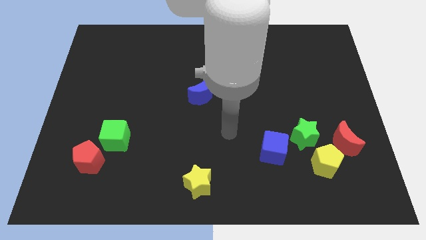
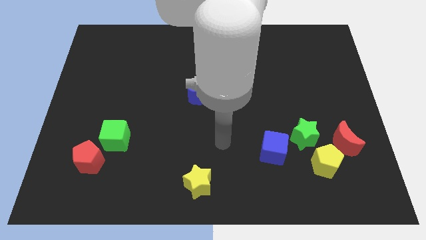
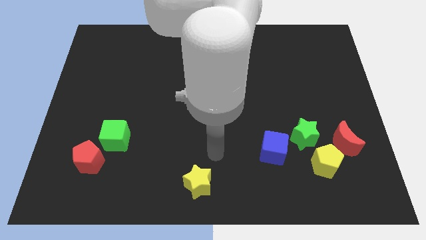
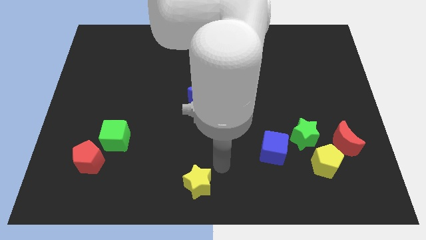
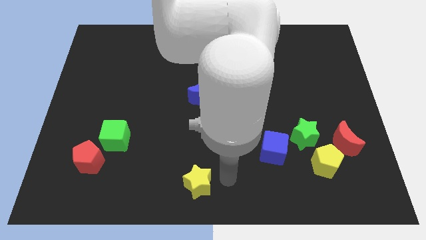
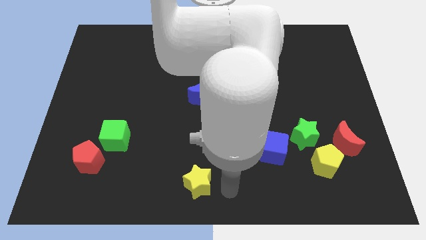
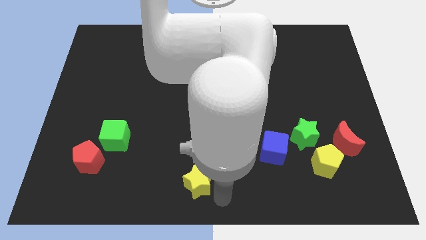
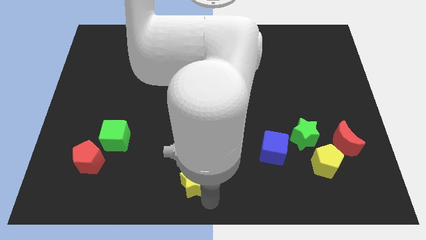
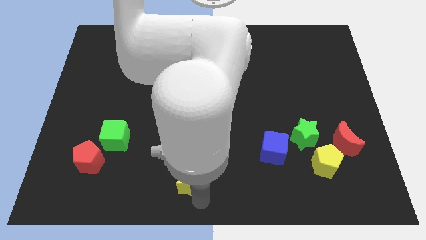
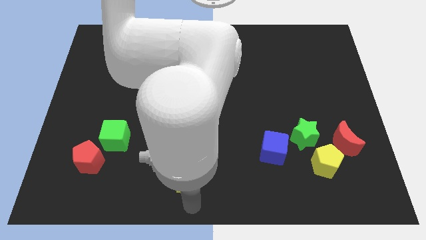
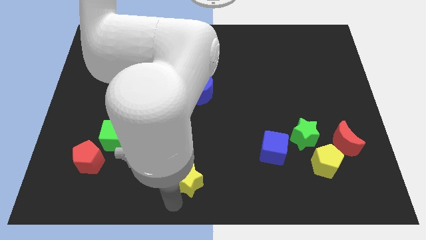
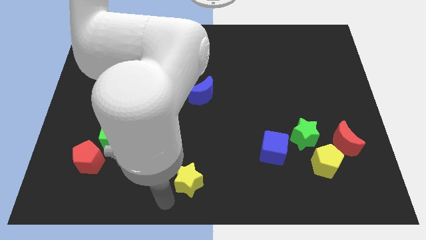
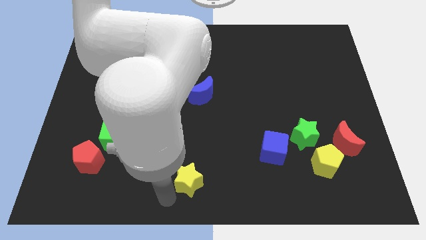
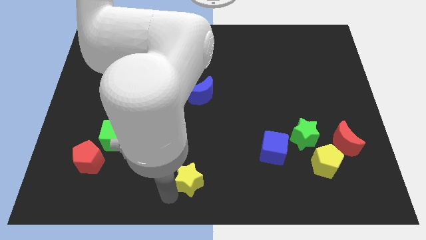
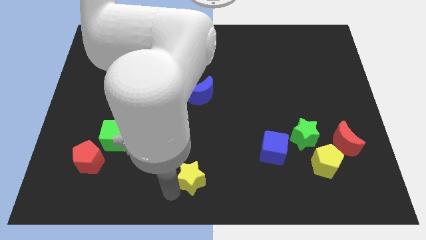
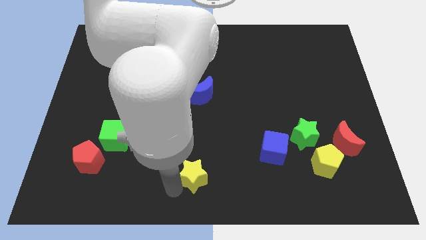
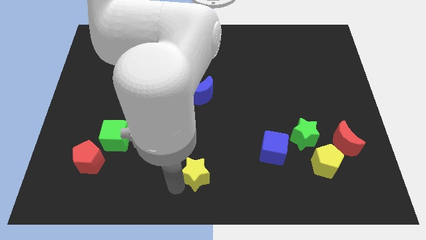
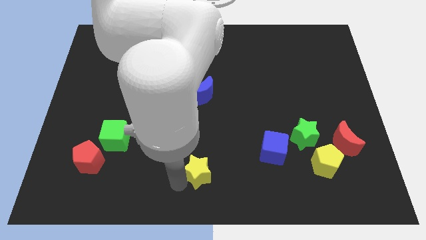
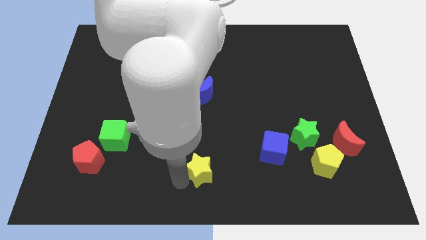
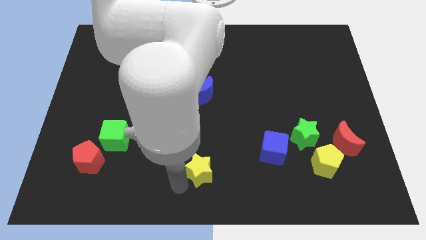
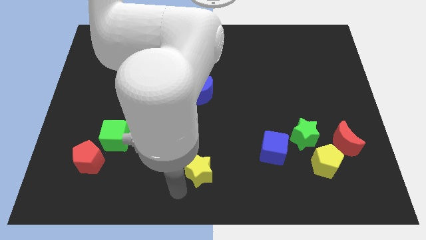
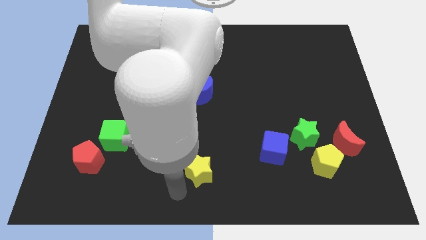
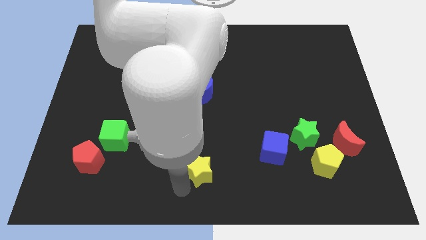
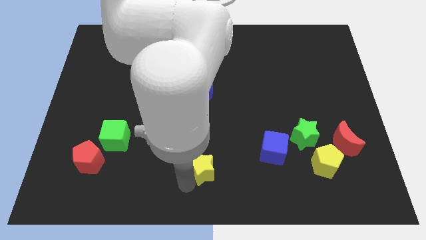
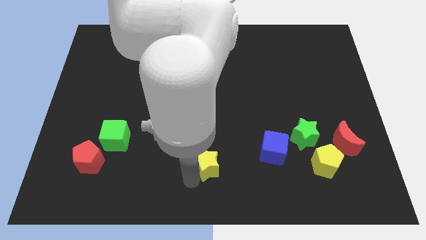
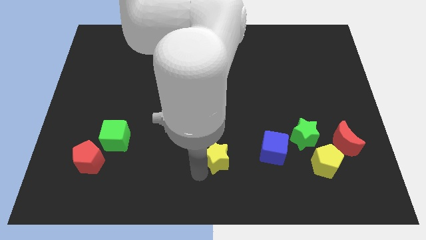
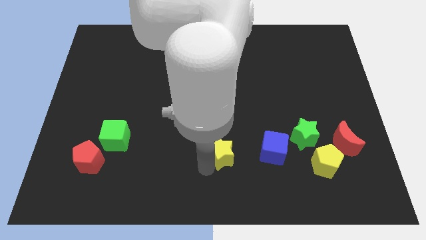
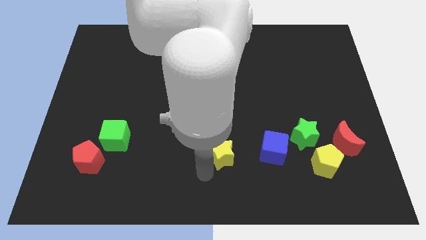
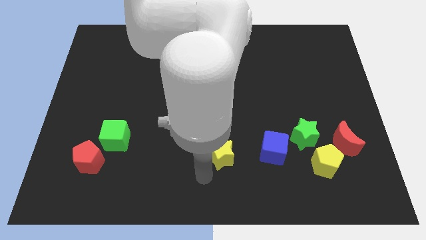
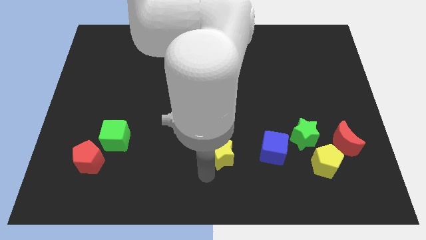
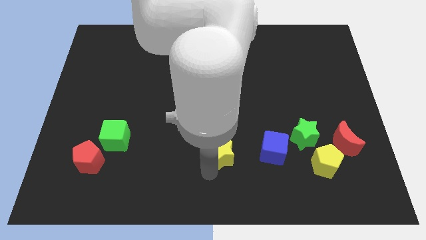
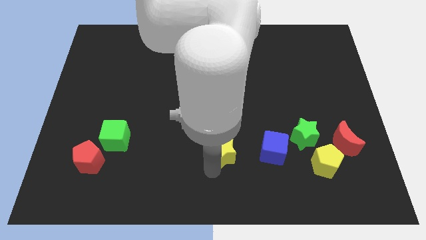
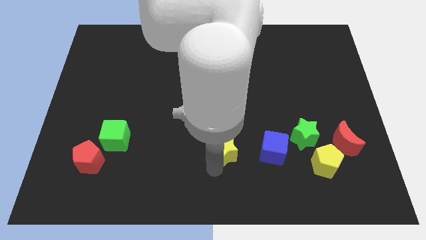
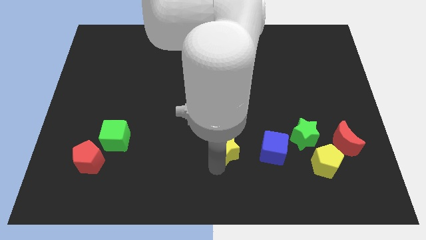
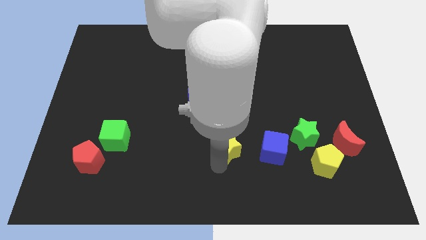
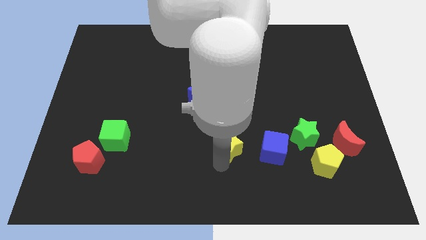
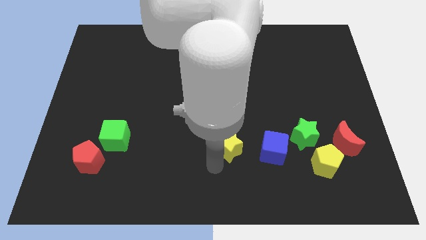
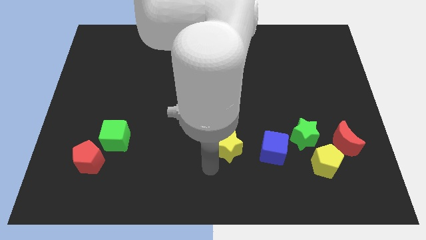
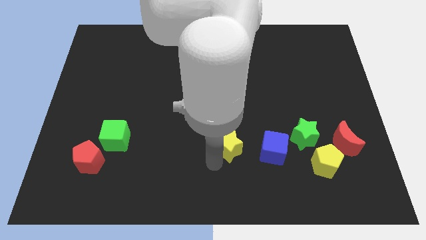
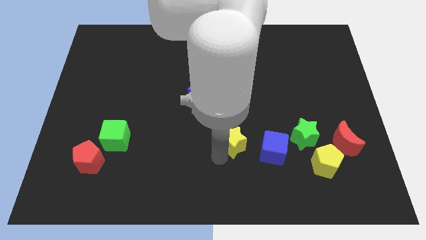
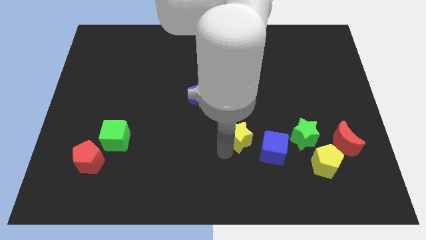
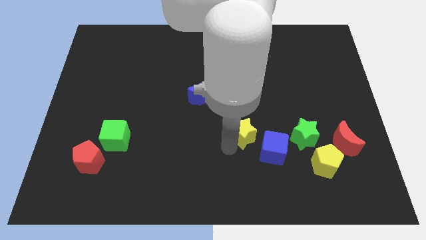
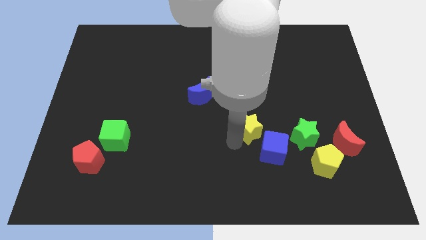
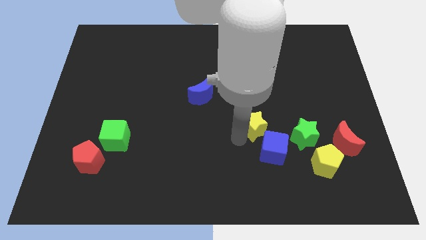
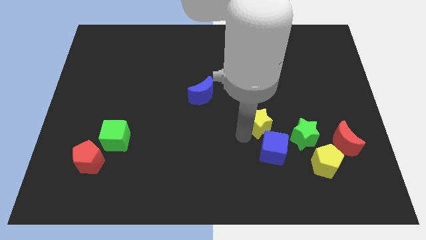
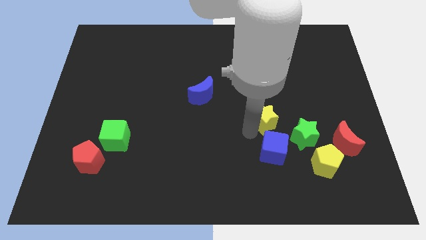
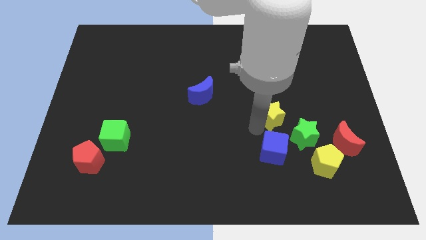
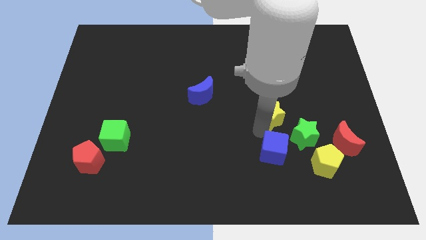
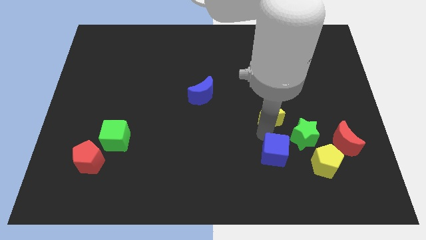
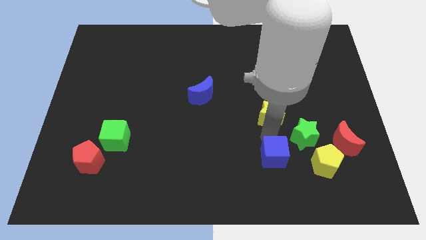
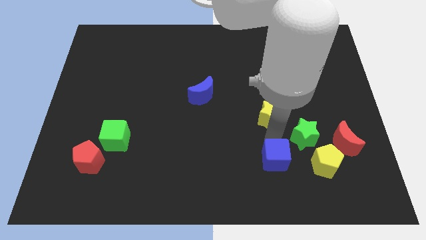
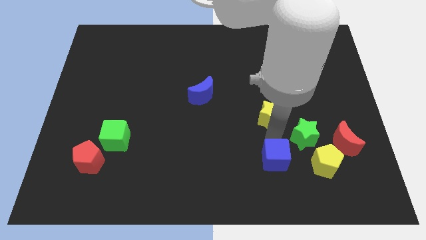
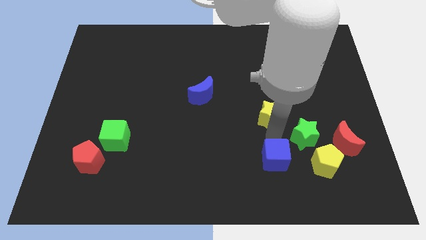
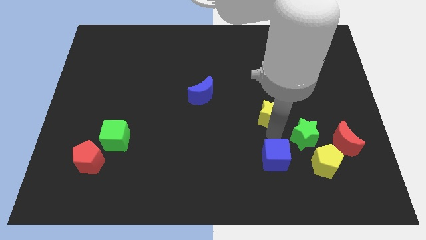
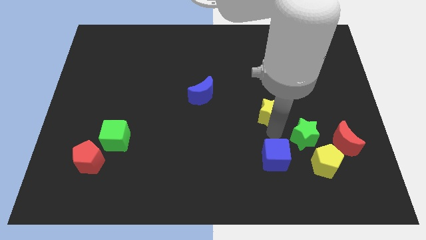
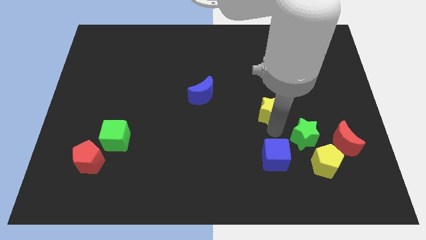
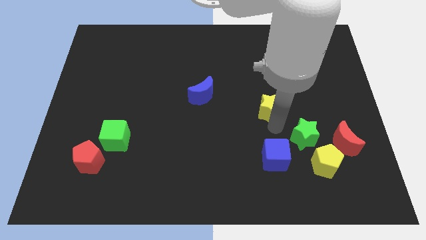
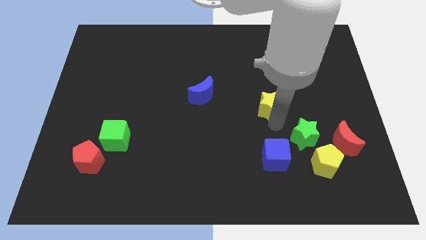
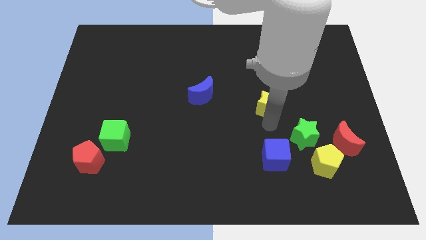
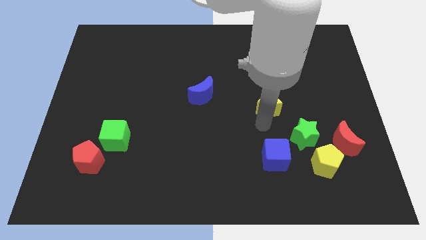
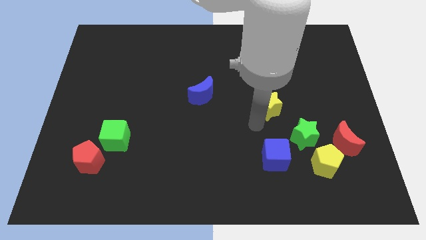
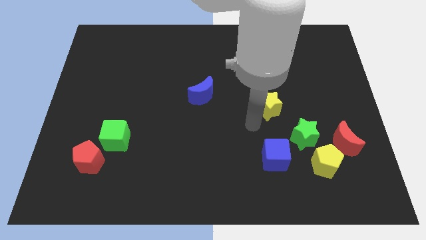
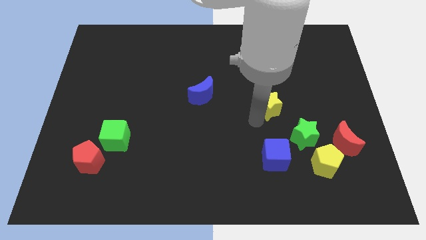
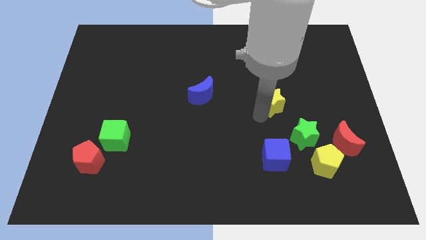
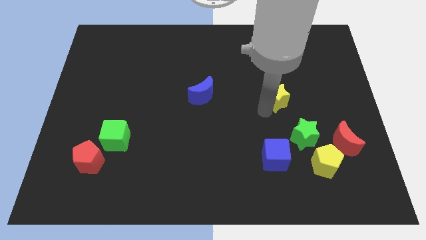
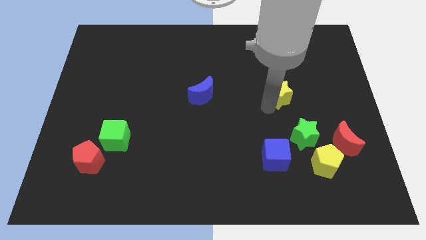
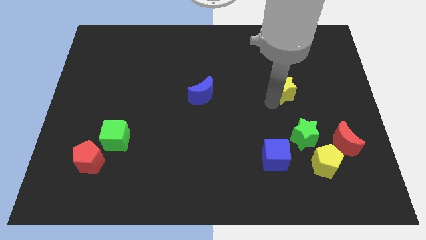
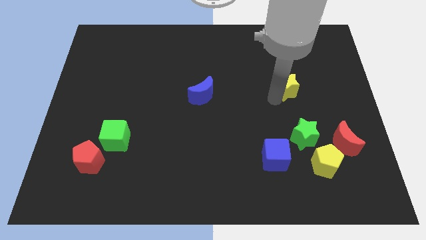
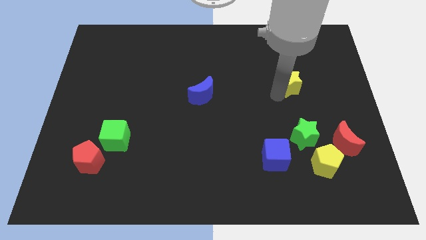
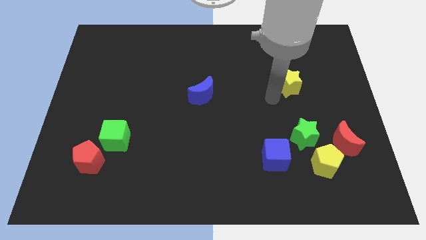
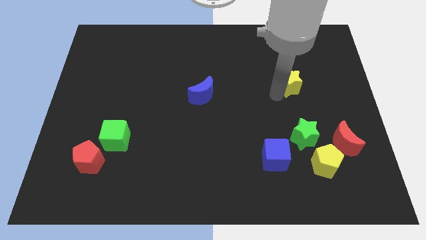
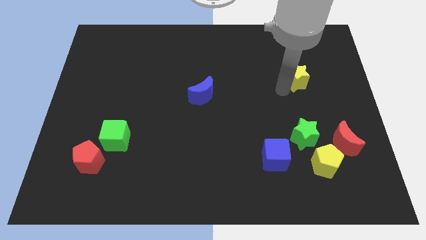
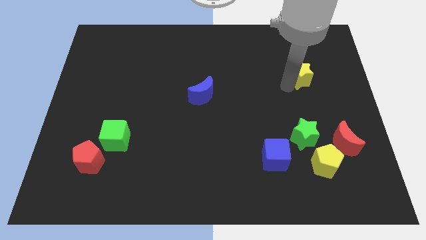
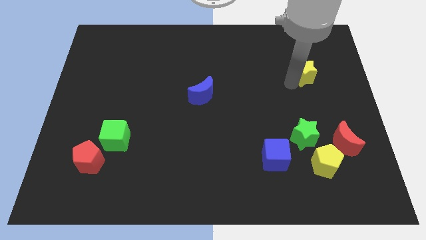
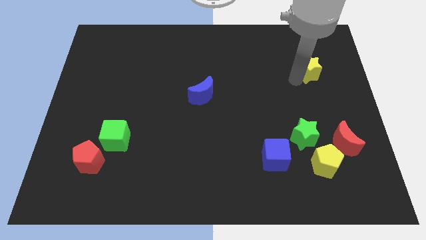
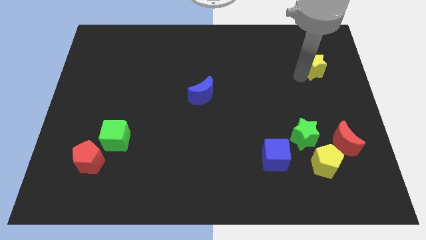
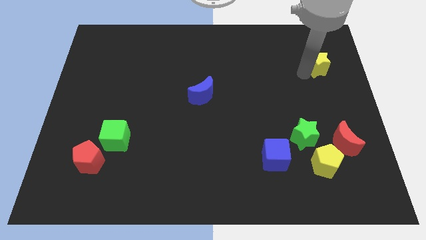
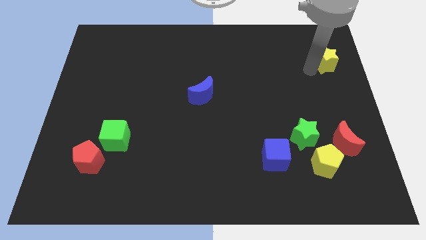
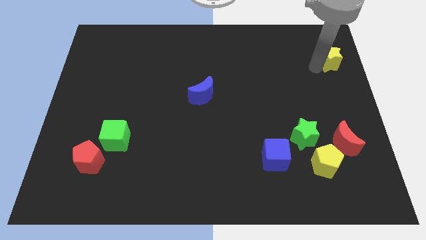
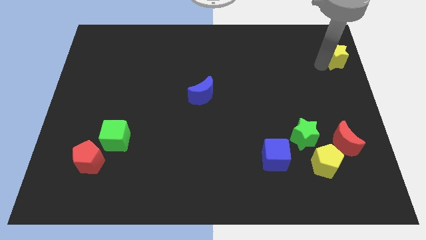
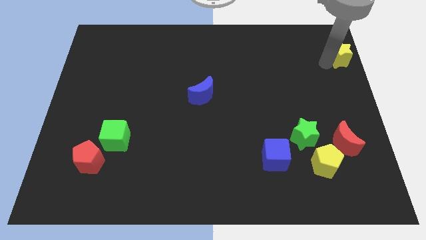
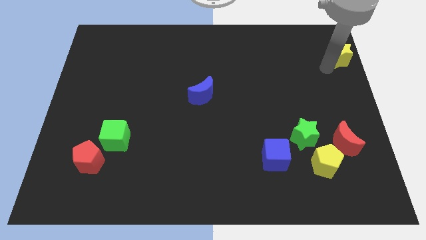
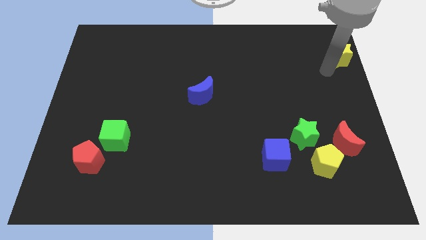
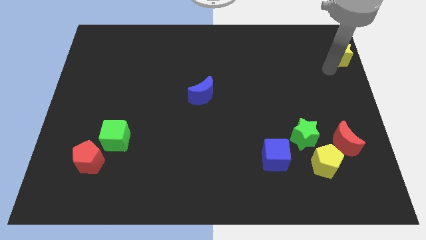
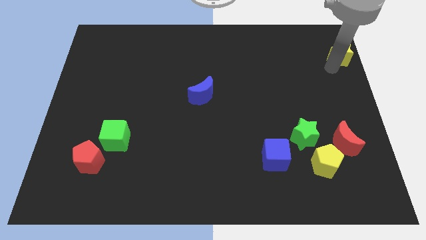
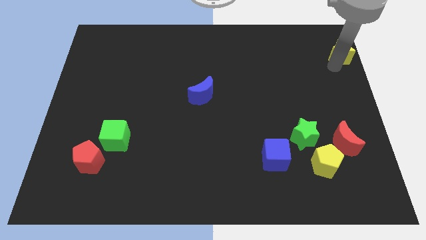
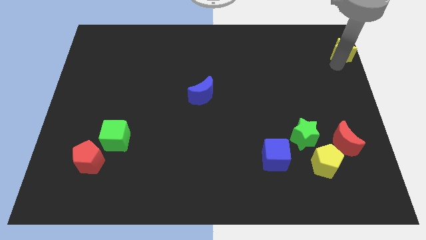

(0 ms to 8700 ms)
slide the yellow star to the top right
